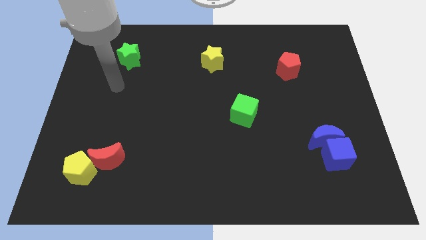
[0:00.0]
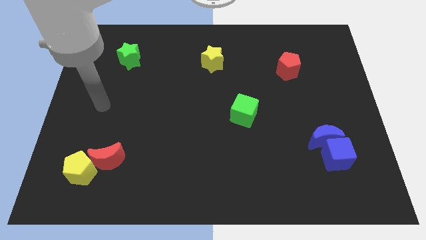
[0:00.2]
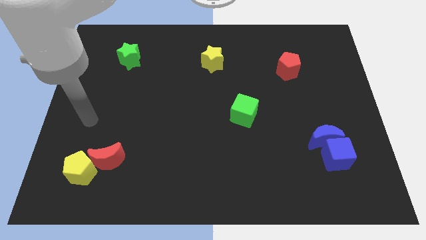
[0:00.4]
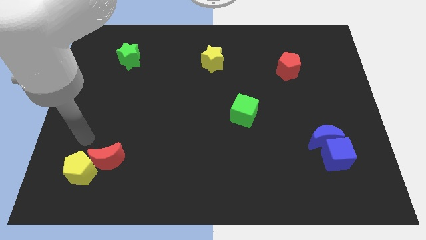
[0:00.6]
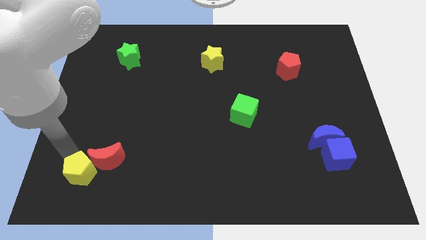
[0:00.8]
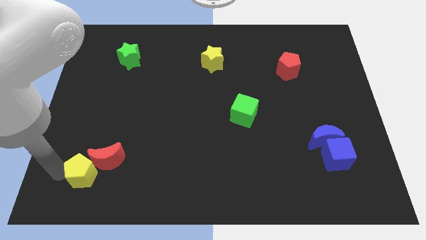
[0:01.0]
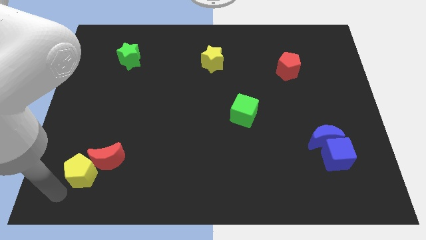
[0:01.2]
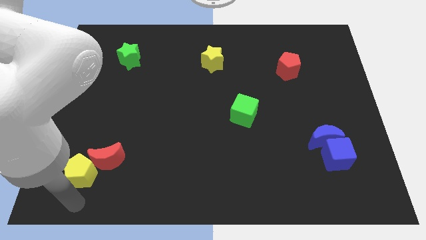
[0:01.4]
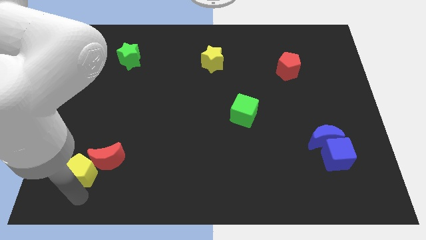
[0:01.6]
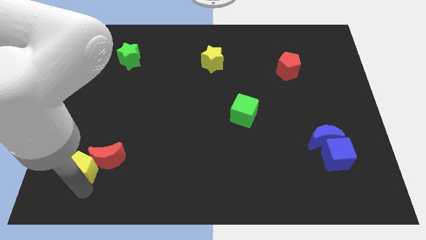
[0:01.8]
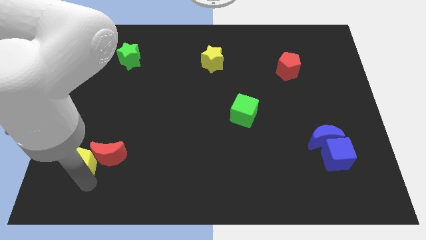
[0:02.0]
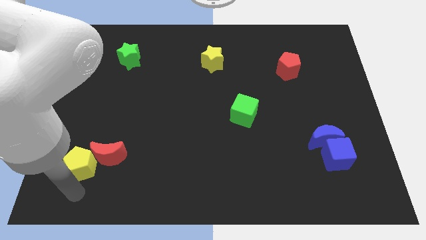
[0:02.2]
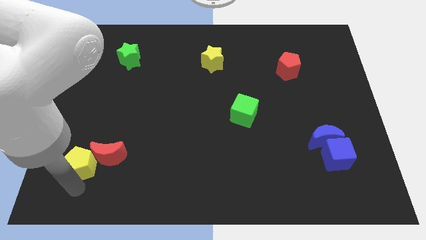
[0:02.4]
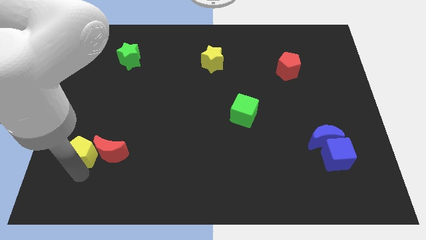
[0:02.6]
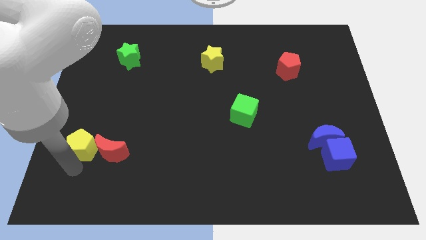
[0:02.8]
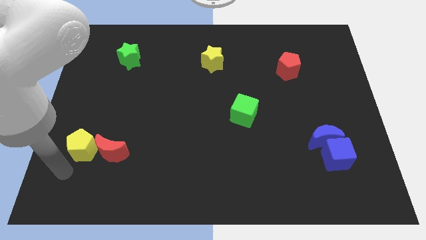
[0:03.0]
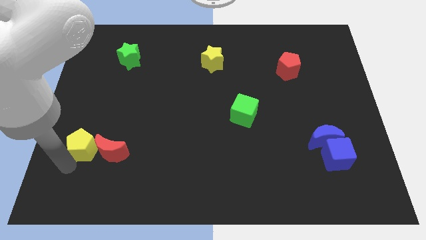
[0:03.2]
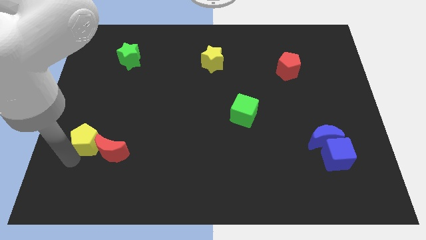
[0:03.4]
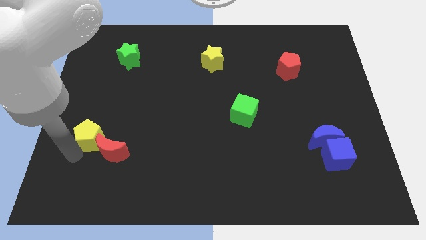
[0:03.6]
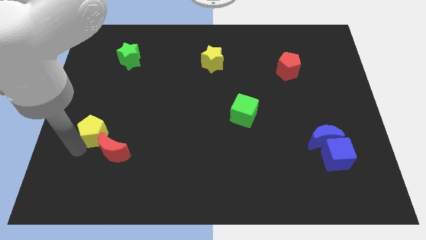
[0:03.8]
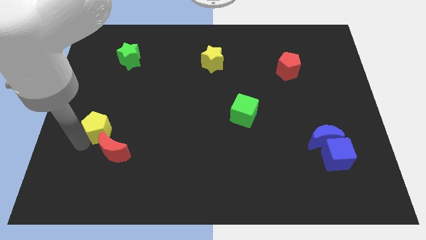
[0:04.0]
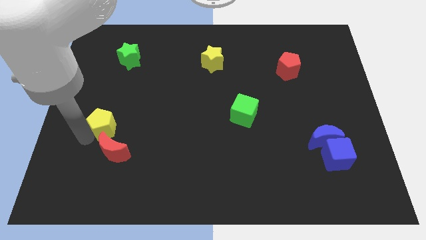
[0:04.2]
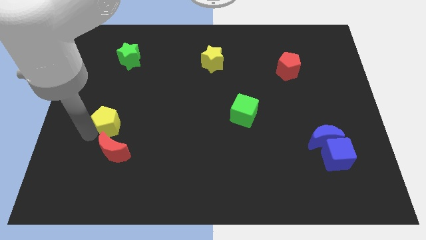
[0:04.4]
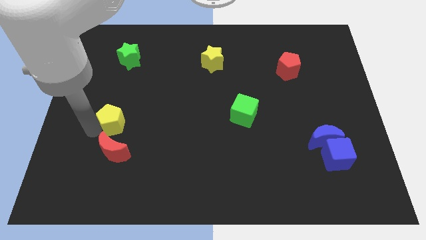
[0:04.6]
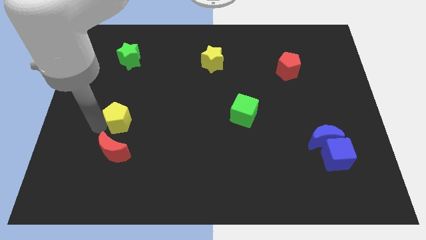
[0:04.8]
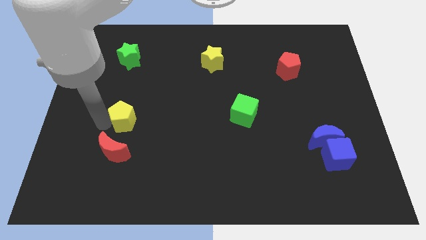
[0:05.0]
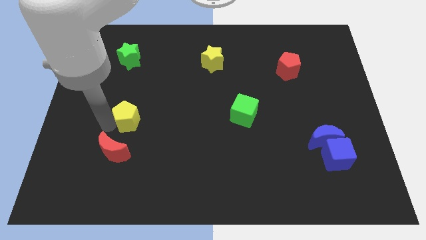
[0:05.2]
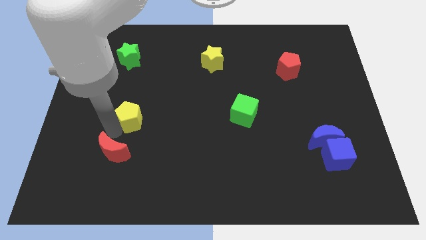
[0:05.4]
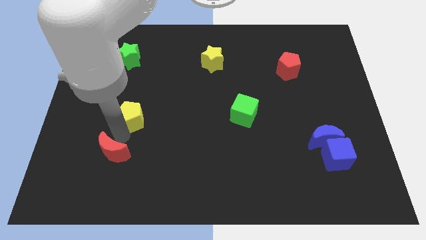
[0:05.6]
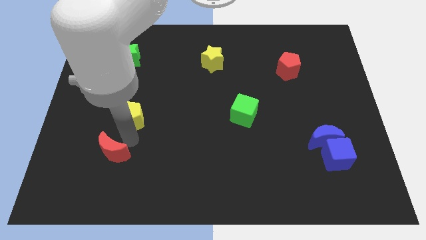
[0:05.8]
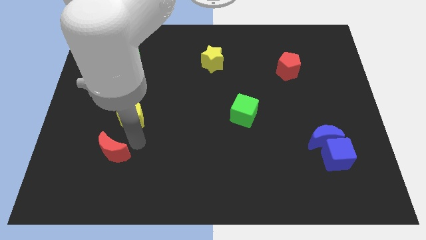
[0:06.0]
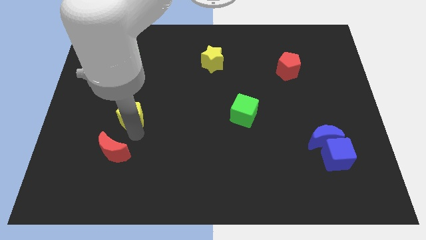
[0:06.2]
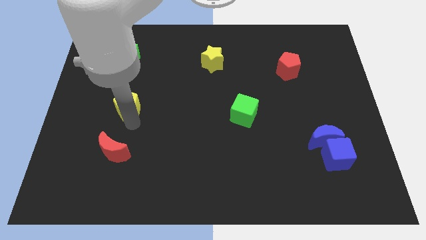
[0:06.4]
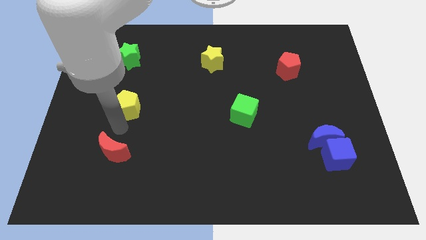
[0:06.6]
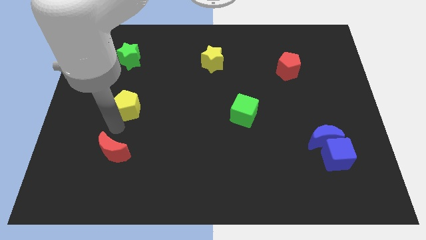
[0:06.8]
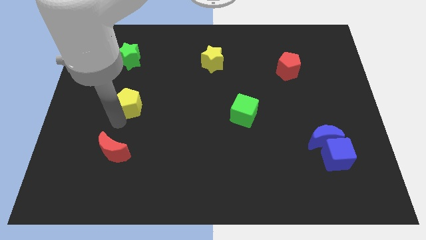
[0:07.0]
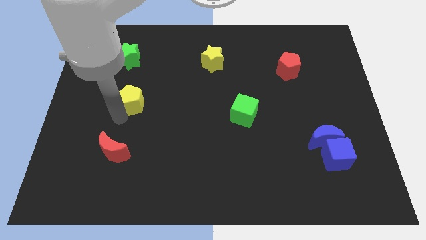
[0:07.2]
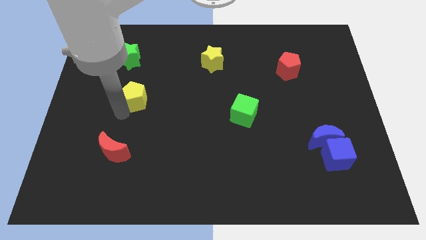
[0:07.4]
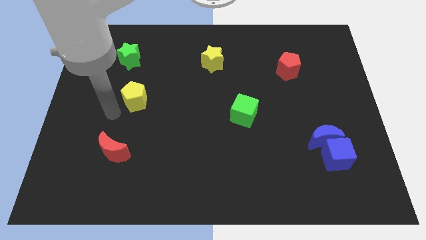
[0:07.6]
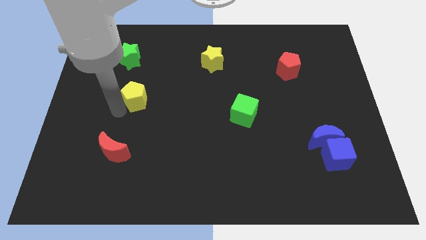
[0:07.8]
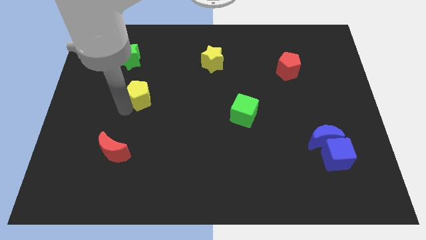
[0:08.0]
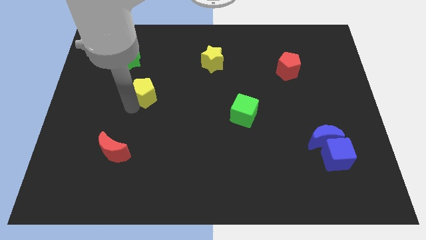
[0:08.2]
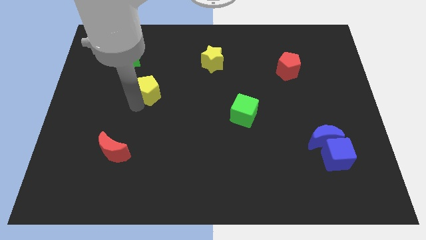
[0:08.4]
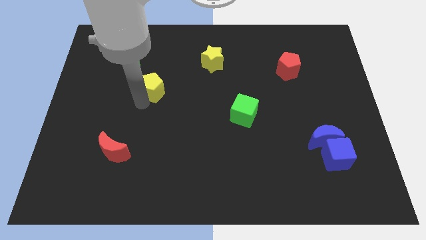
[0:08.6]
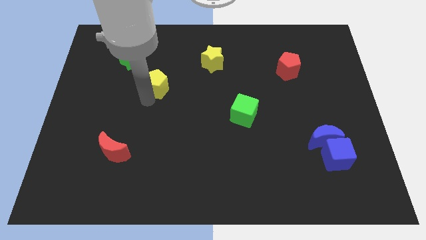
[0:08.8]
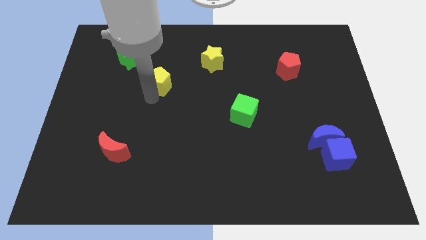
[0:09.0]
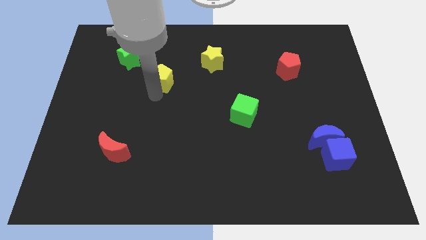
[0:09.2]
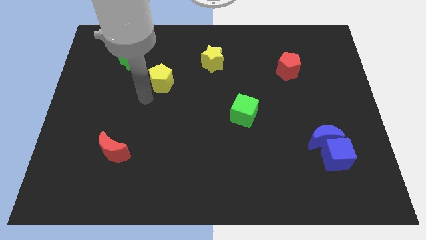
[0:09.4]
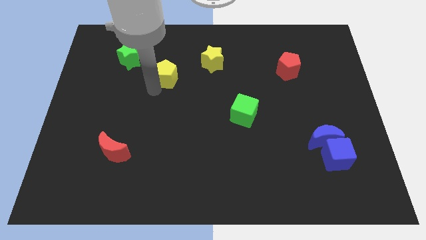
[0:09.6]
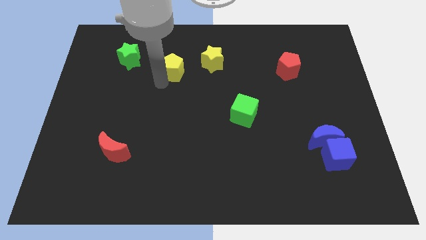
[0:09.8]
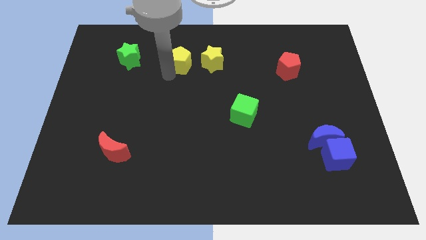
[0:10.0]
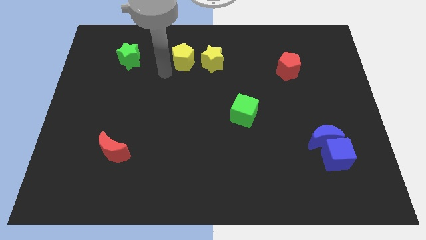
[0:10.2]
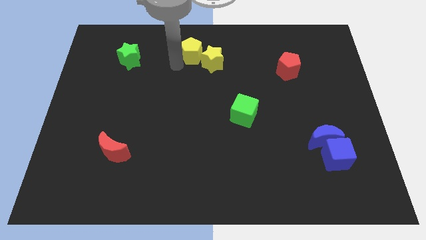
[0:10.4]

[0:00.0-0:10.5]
slide the yellow pentagon to the top
